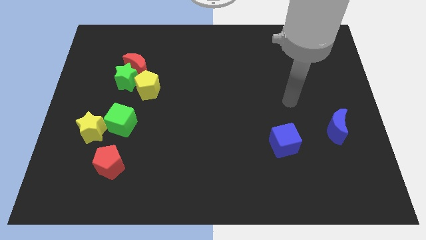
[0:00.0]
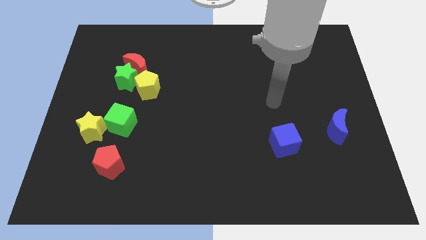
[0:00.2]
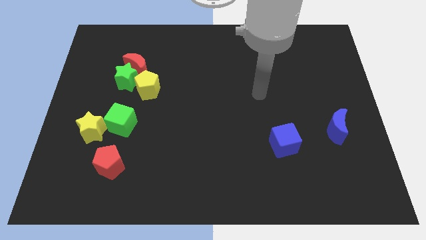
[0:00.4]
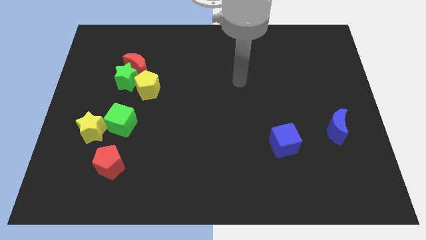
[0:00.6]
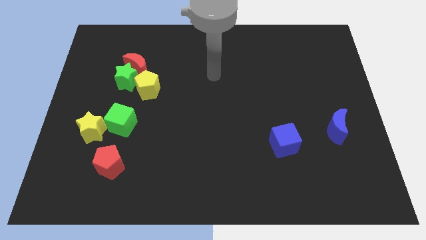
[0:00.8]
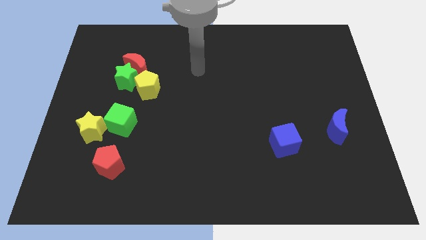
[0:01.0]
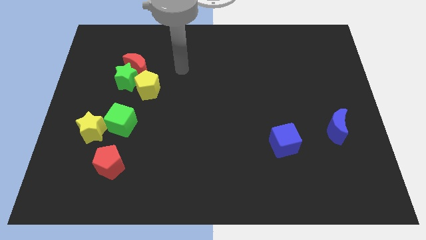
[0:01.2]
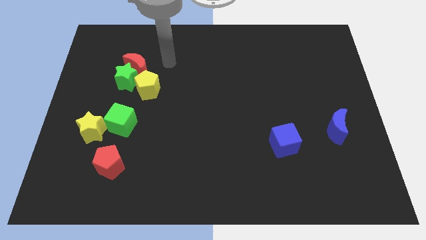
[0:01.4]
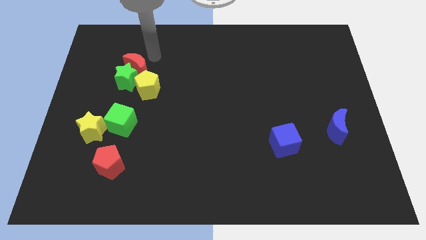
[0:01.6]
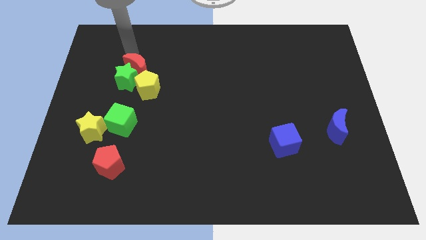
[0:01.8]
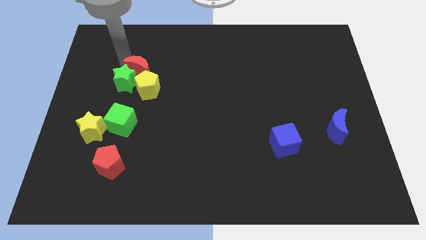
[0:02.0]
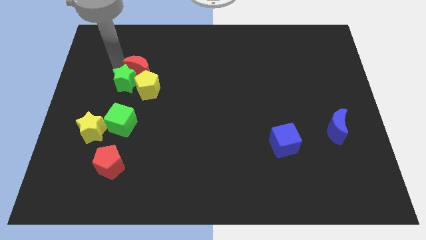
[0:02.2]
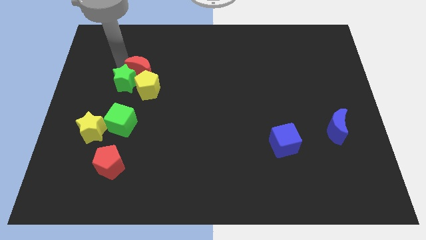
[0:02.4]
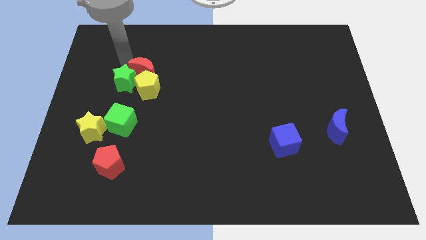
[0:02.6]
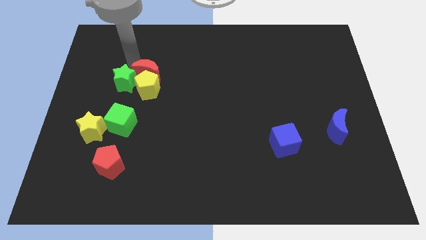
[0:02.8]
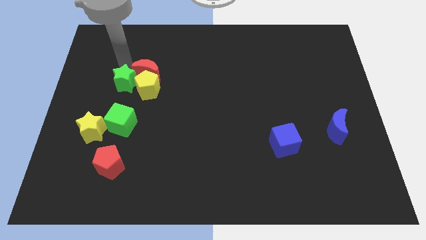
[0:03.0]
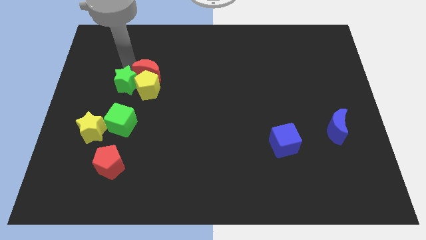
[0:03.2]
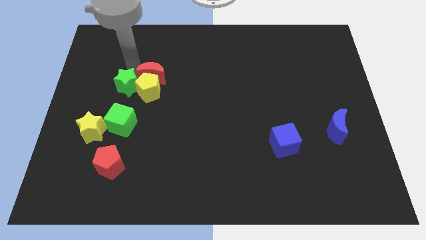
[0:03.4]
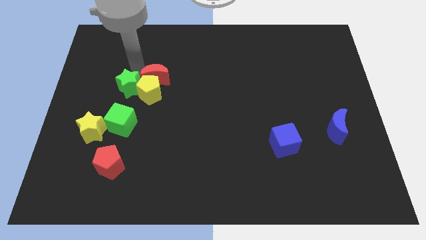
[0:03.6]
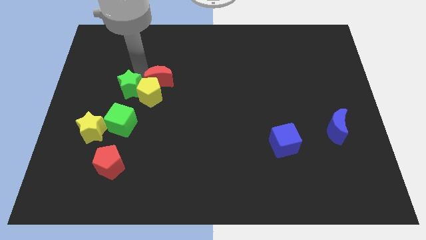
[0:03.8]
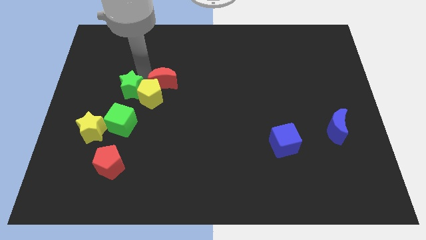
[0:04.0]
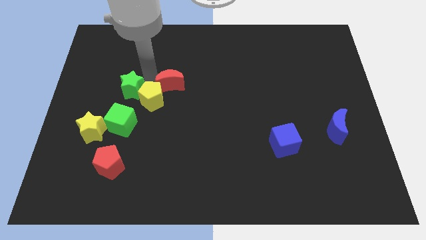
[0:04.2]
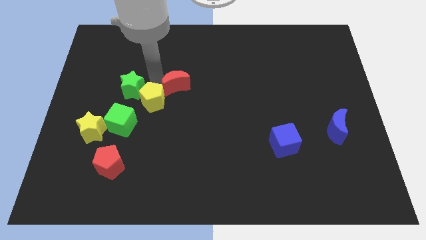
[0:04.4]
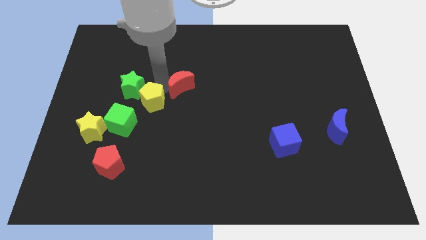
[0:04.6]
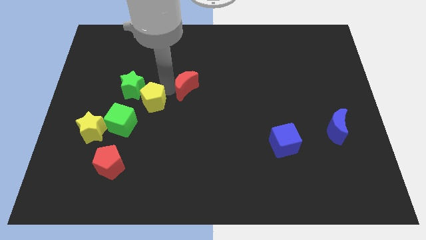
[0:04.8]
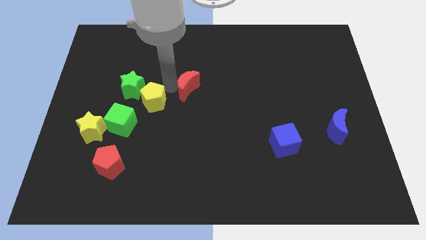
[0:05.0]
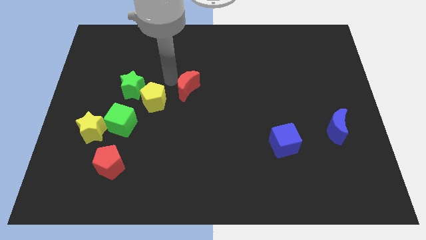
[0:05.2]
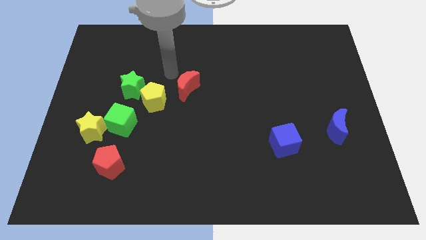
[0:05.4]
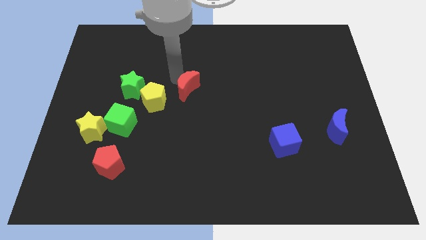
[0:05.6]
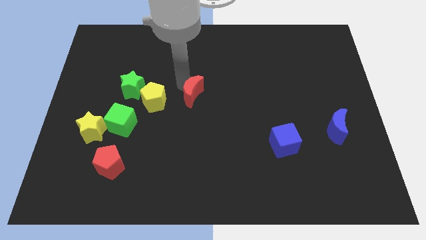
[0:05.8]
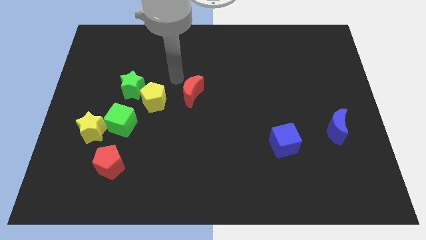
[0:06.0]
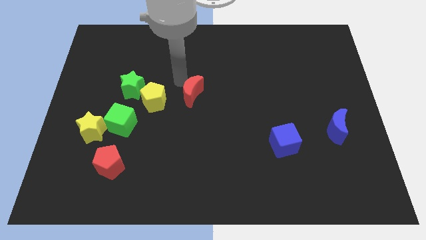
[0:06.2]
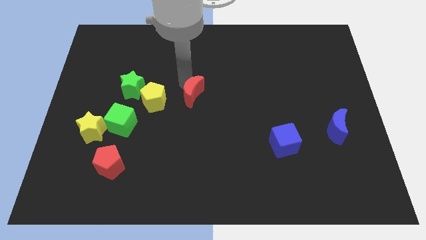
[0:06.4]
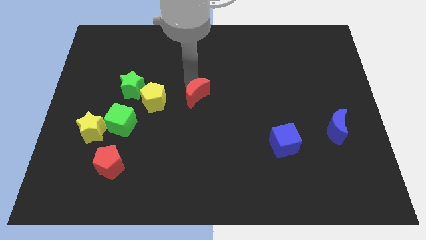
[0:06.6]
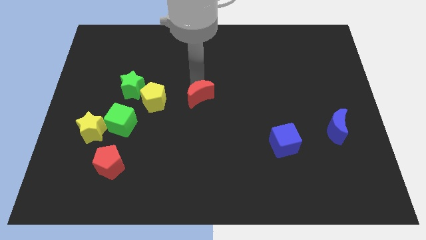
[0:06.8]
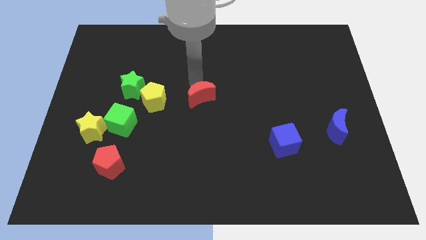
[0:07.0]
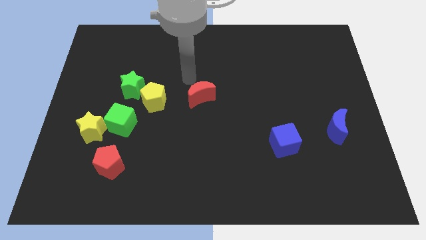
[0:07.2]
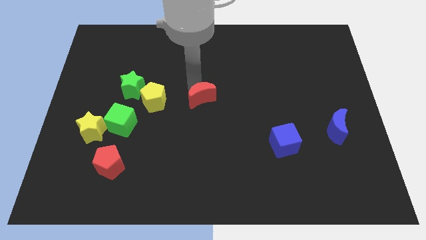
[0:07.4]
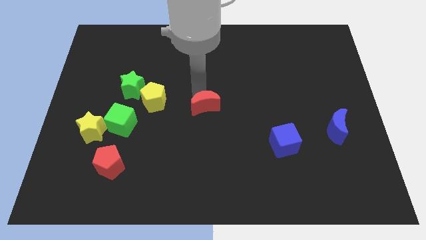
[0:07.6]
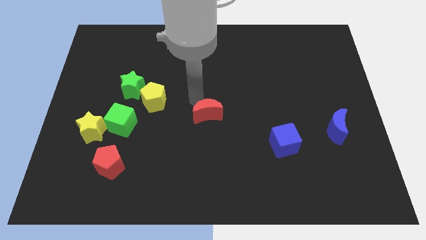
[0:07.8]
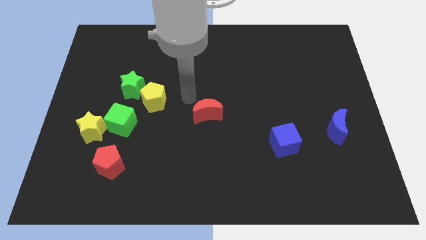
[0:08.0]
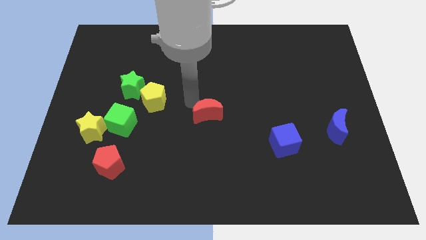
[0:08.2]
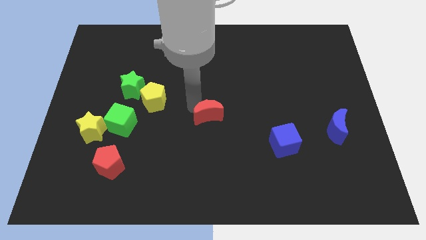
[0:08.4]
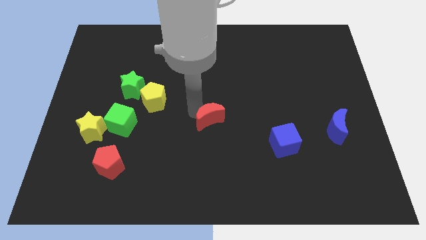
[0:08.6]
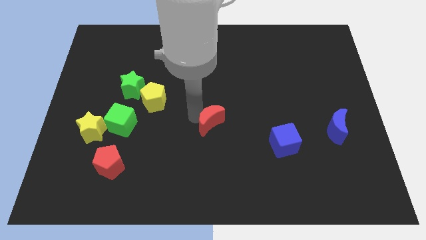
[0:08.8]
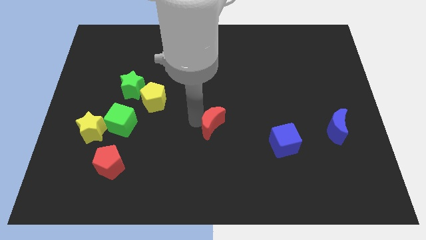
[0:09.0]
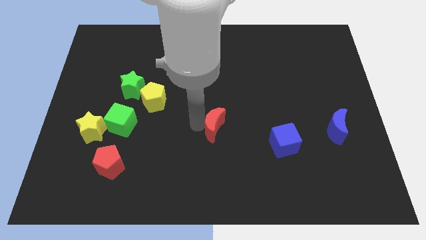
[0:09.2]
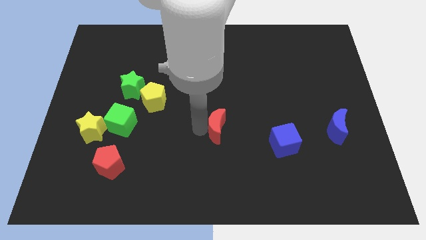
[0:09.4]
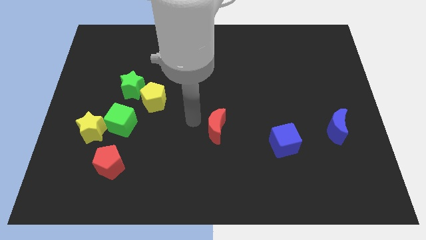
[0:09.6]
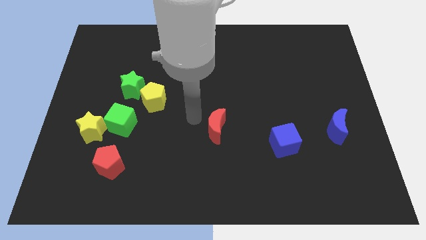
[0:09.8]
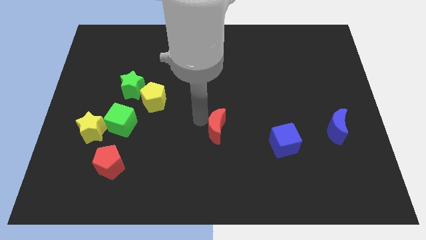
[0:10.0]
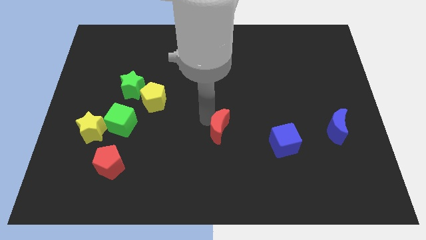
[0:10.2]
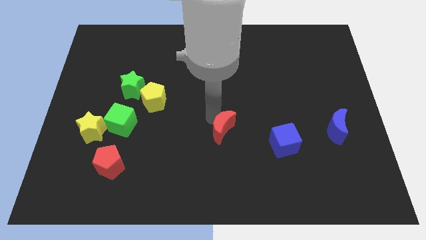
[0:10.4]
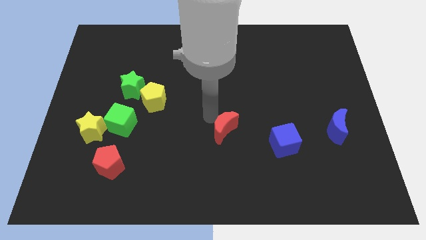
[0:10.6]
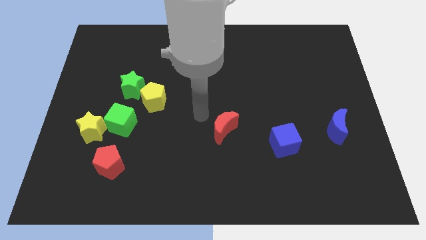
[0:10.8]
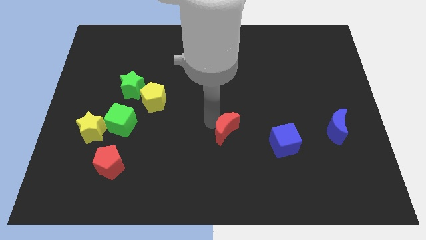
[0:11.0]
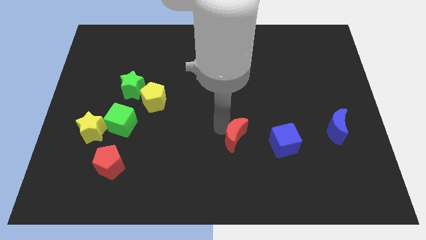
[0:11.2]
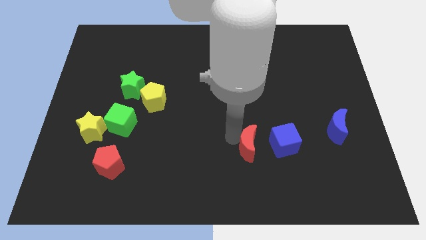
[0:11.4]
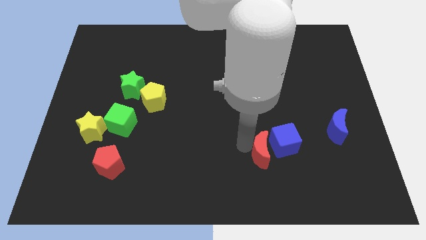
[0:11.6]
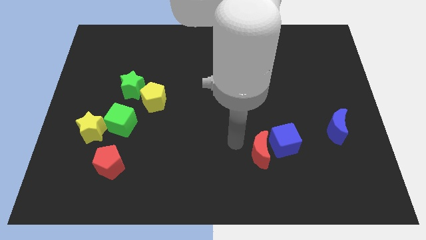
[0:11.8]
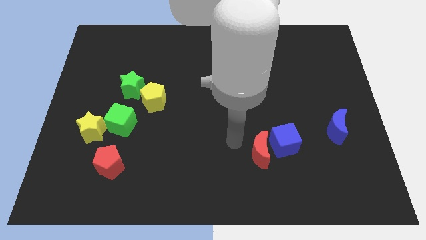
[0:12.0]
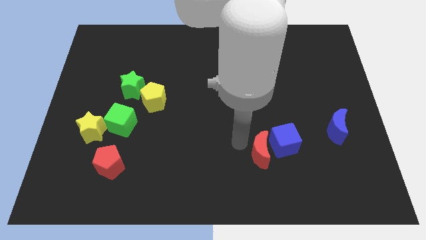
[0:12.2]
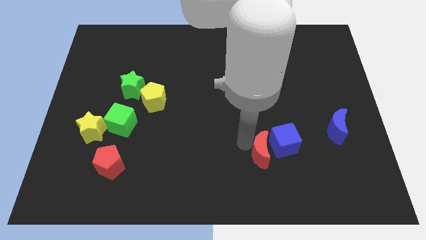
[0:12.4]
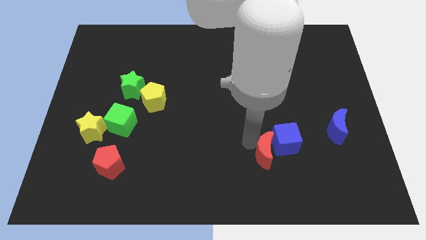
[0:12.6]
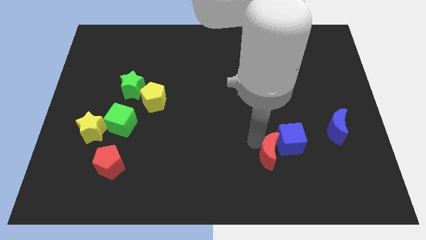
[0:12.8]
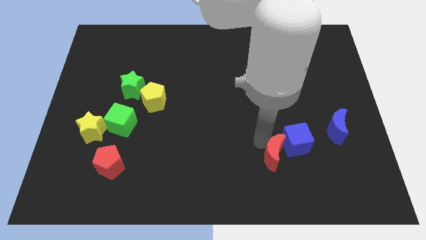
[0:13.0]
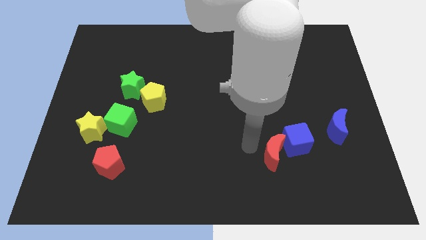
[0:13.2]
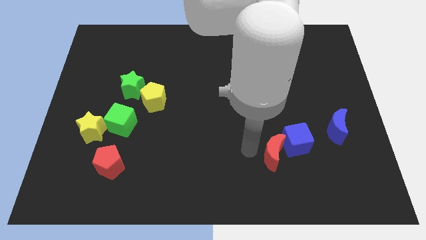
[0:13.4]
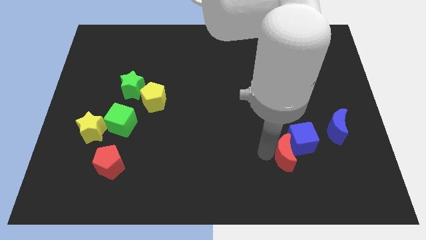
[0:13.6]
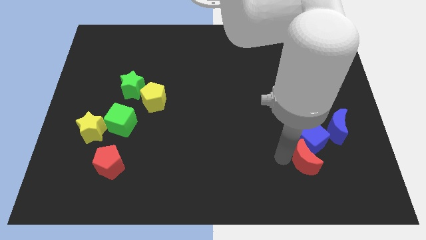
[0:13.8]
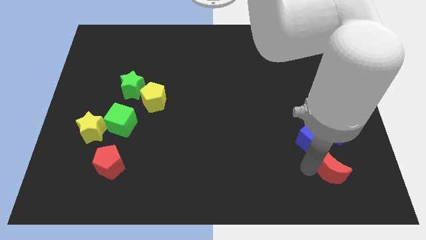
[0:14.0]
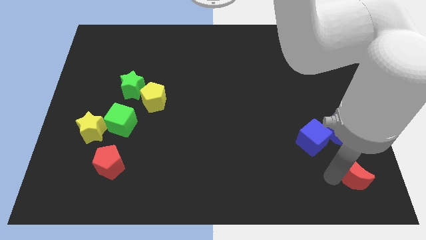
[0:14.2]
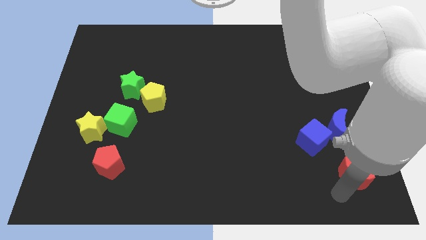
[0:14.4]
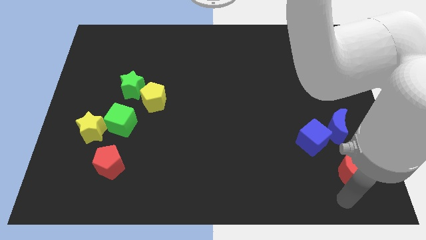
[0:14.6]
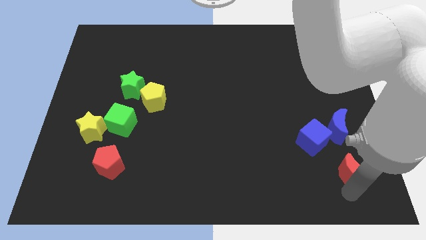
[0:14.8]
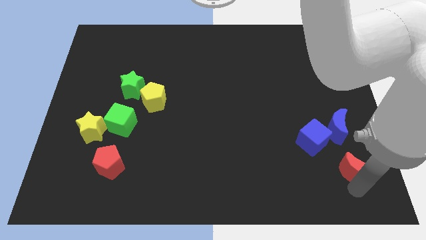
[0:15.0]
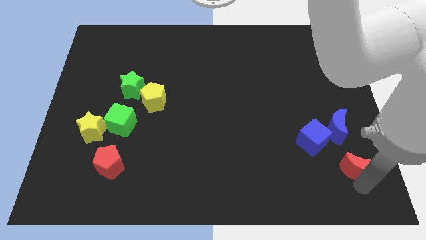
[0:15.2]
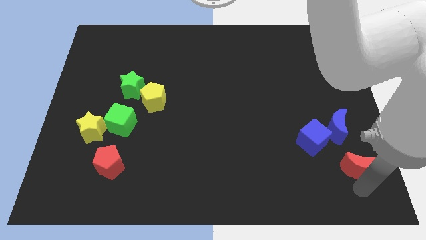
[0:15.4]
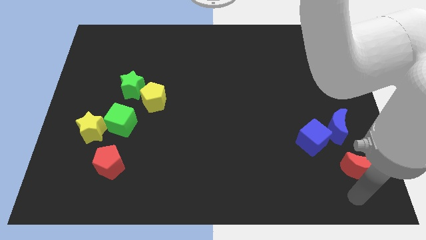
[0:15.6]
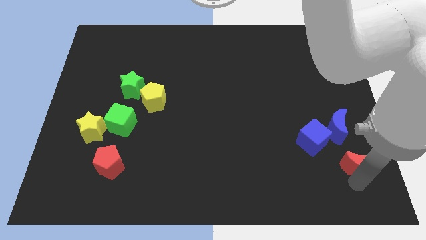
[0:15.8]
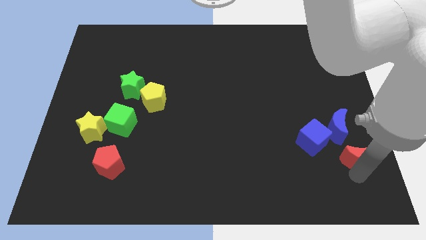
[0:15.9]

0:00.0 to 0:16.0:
put the red moon to the right side of the blue cube
